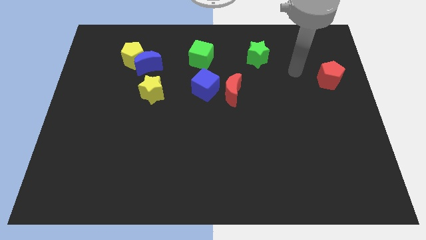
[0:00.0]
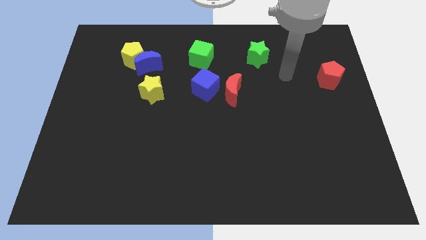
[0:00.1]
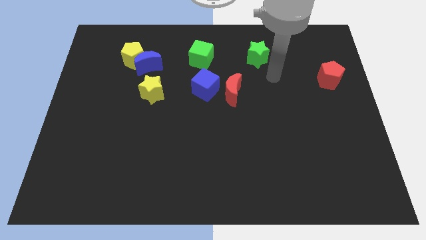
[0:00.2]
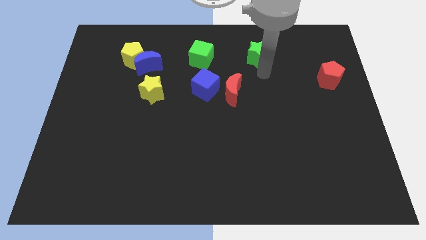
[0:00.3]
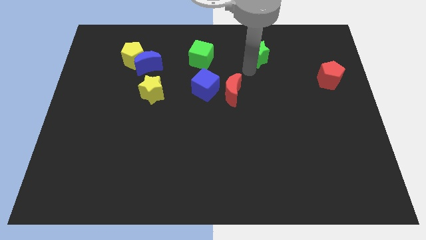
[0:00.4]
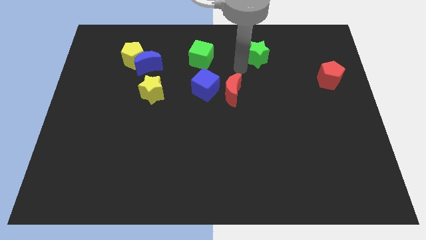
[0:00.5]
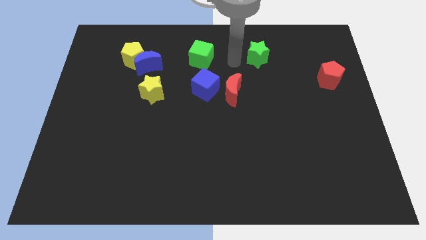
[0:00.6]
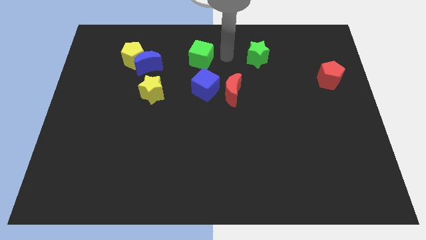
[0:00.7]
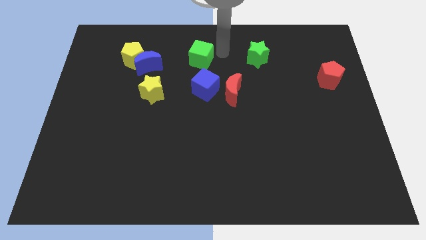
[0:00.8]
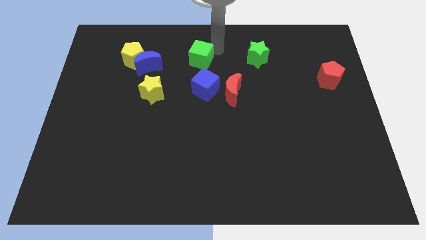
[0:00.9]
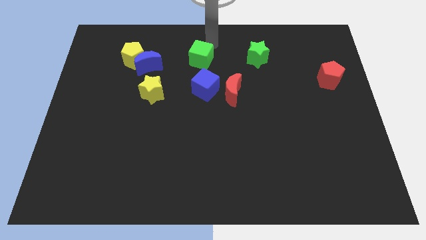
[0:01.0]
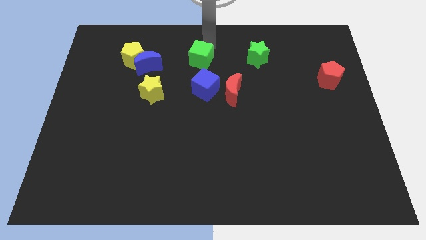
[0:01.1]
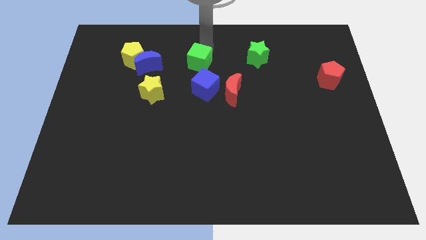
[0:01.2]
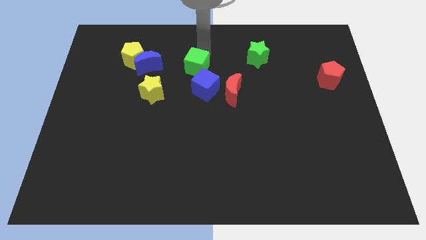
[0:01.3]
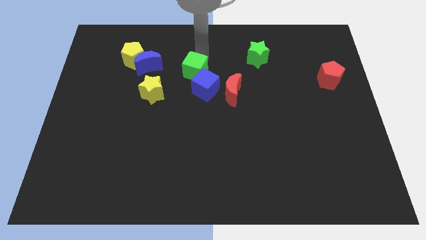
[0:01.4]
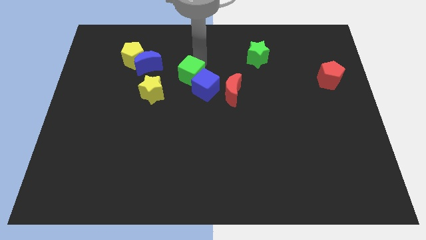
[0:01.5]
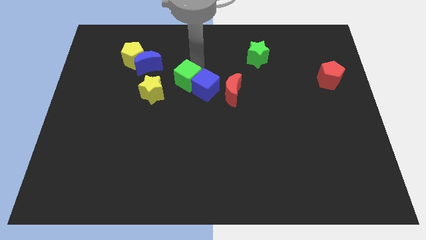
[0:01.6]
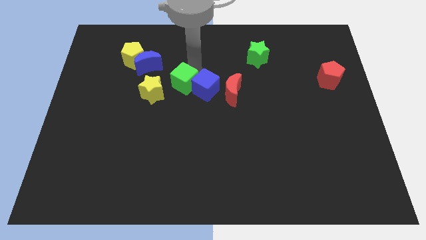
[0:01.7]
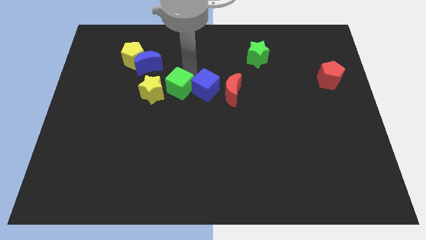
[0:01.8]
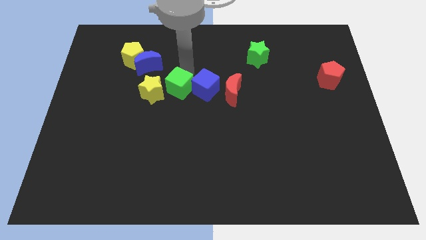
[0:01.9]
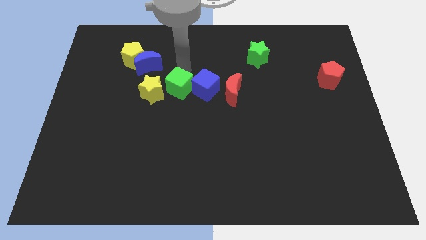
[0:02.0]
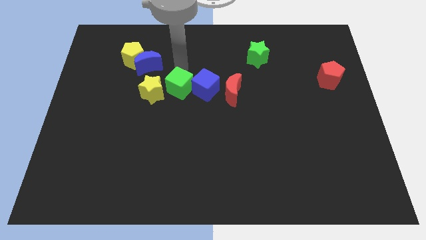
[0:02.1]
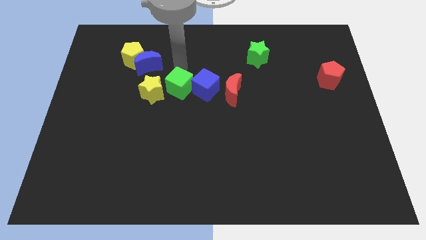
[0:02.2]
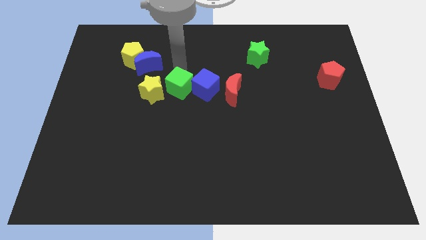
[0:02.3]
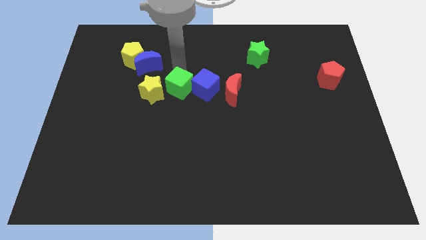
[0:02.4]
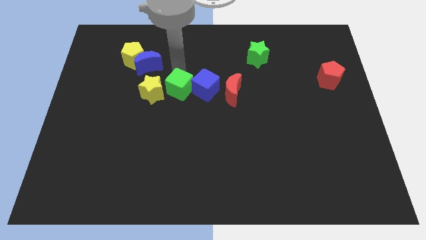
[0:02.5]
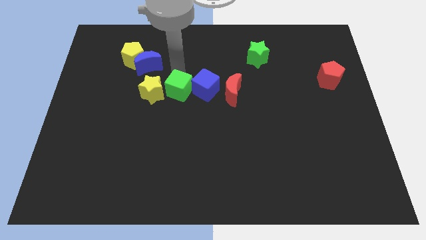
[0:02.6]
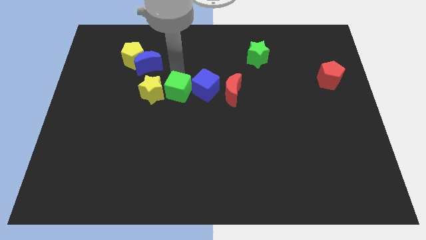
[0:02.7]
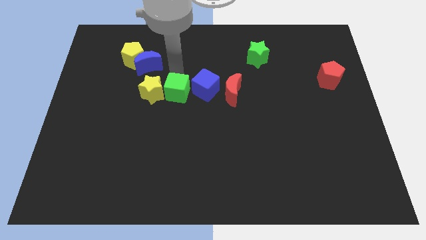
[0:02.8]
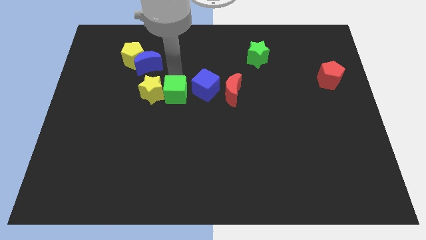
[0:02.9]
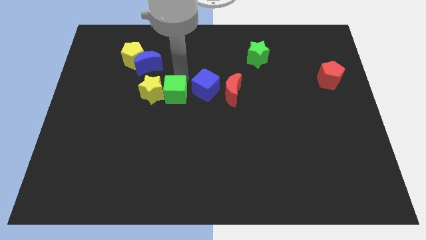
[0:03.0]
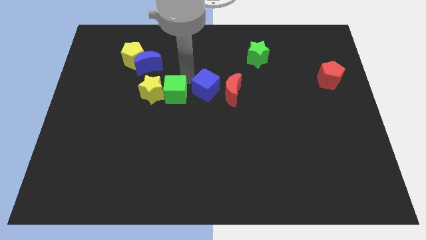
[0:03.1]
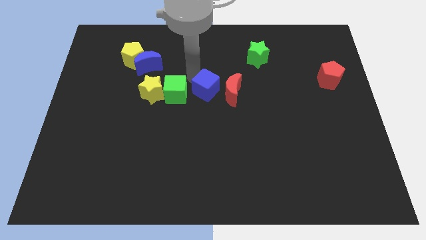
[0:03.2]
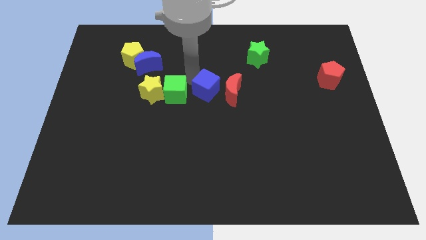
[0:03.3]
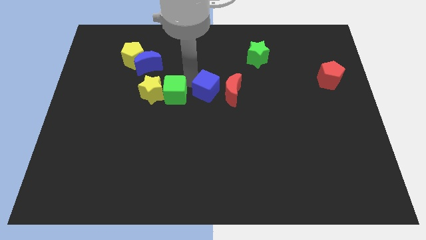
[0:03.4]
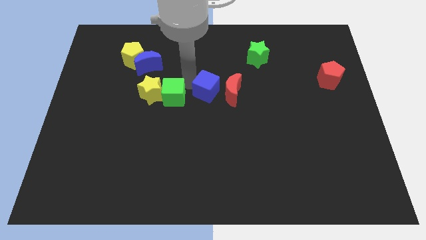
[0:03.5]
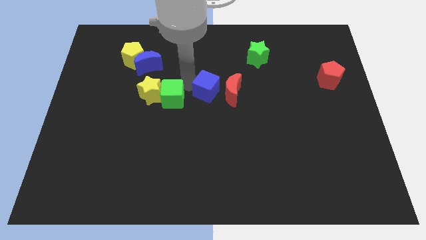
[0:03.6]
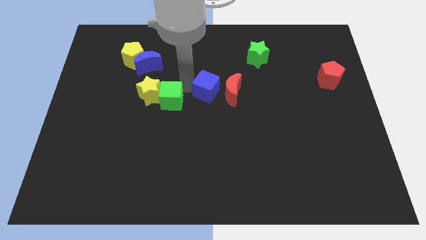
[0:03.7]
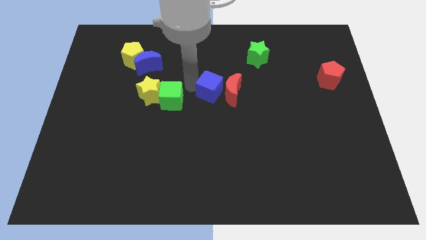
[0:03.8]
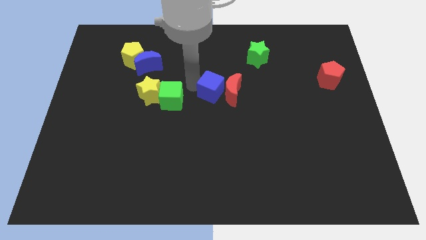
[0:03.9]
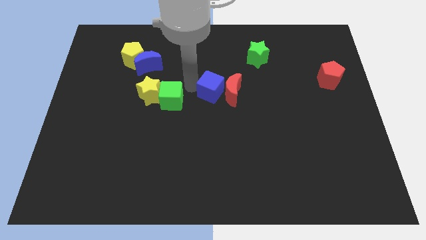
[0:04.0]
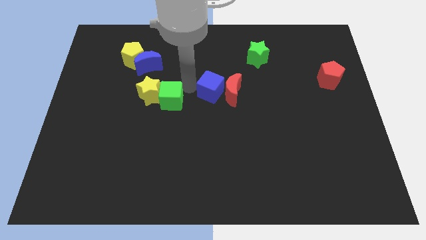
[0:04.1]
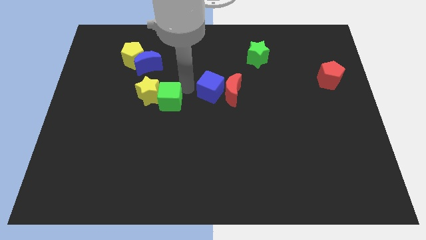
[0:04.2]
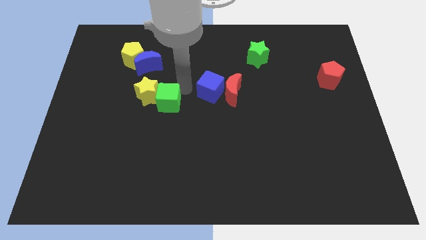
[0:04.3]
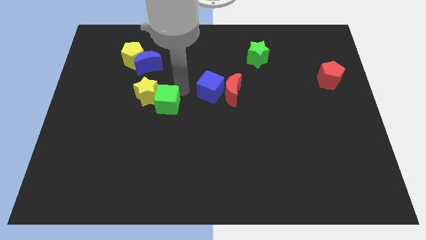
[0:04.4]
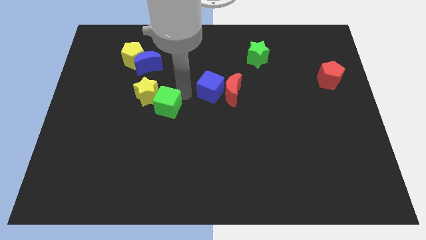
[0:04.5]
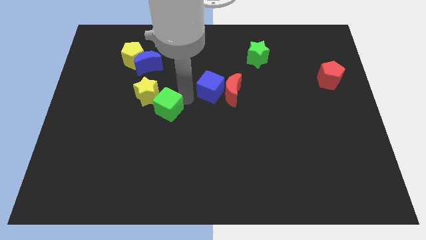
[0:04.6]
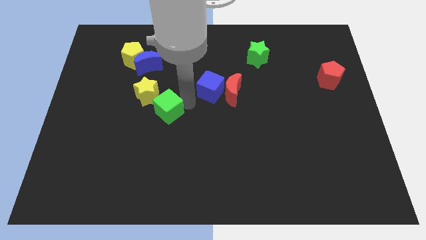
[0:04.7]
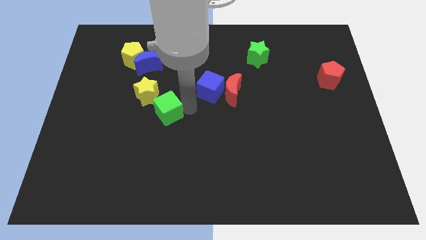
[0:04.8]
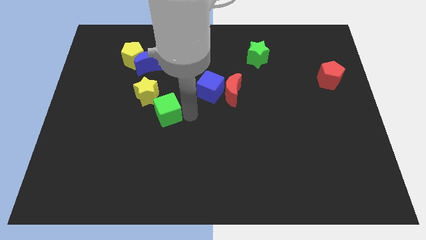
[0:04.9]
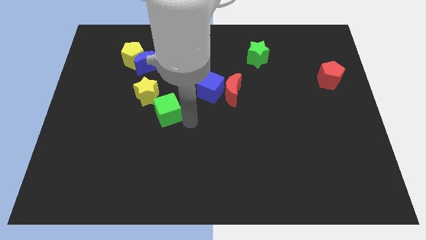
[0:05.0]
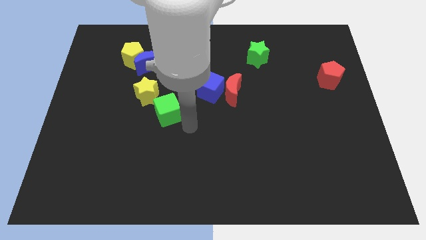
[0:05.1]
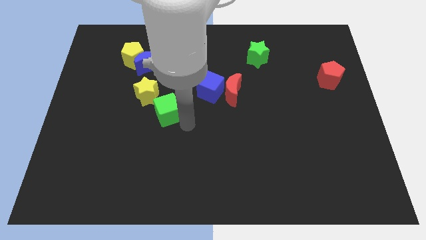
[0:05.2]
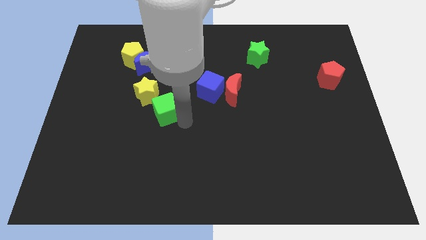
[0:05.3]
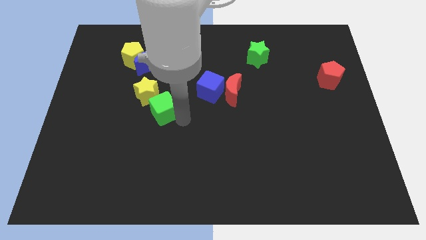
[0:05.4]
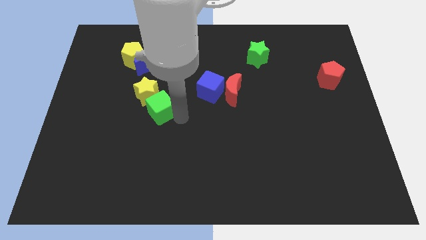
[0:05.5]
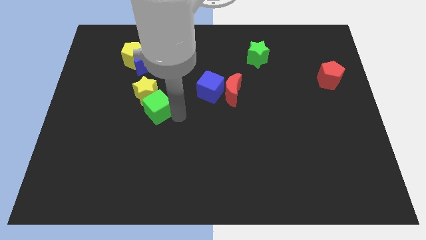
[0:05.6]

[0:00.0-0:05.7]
move the green cube to the bottom of the blue moon

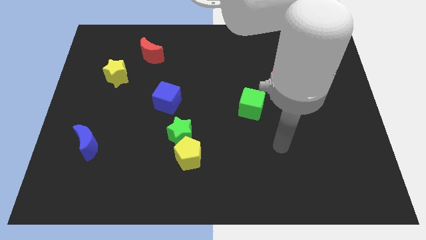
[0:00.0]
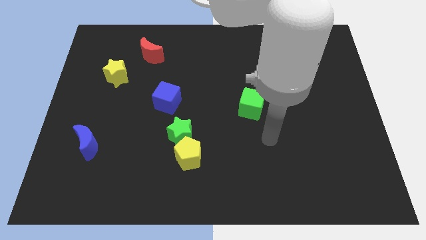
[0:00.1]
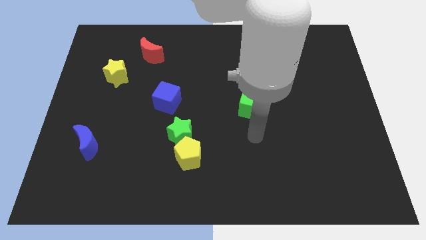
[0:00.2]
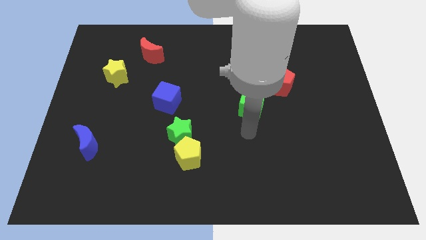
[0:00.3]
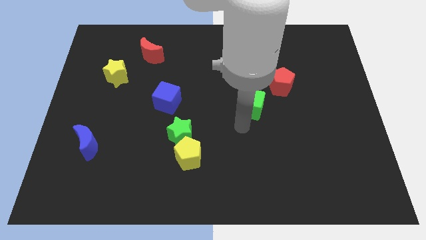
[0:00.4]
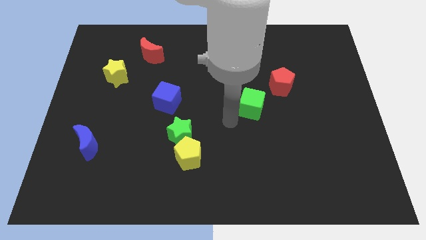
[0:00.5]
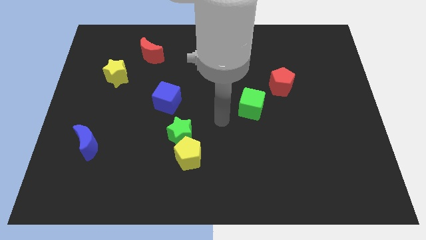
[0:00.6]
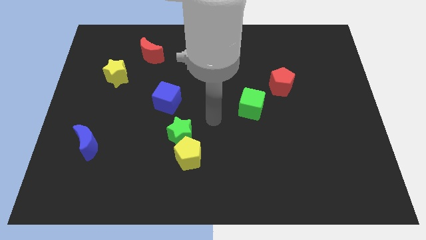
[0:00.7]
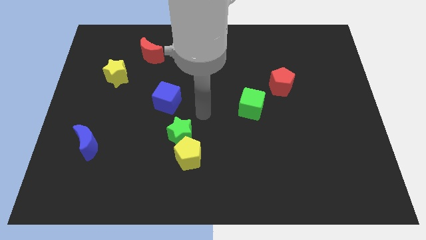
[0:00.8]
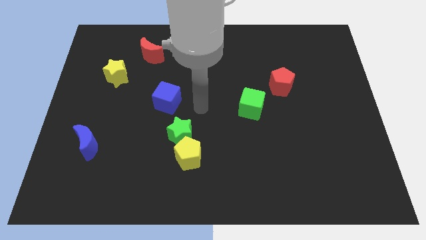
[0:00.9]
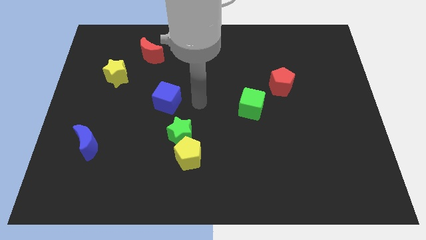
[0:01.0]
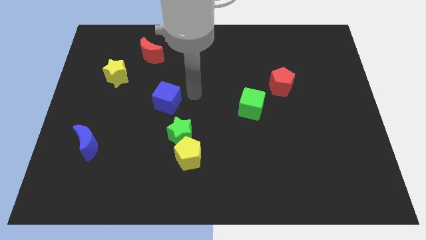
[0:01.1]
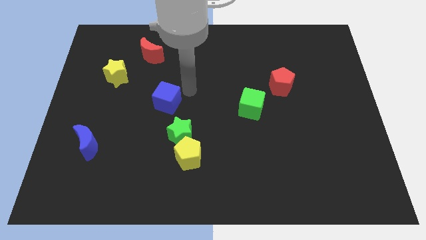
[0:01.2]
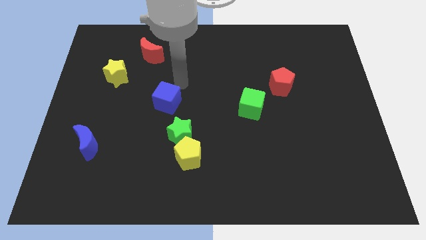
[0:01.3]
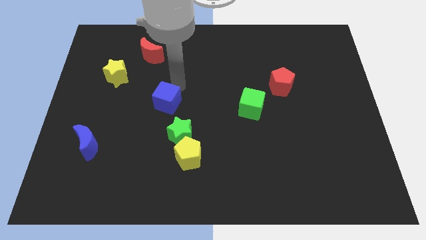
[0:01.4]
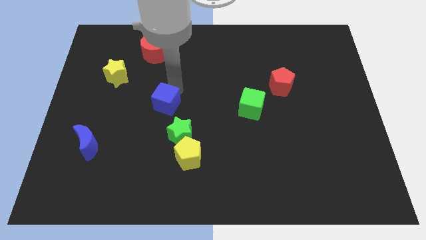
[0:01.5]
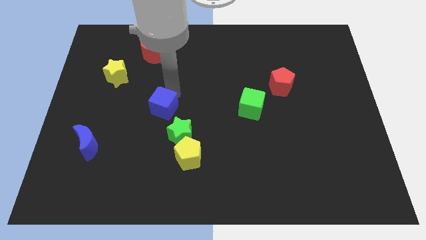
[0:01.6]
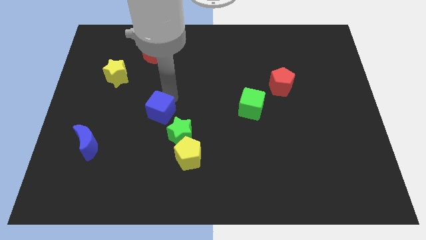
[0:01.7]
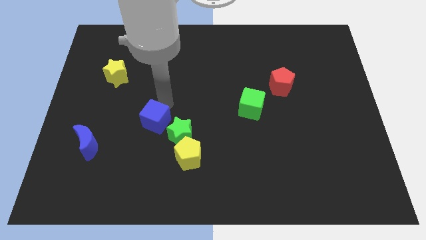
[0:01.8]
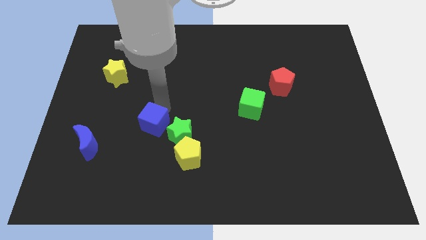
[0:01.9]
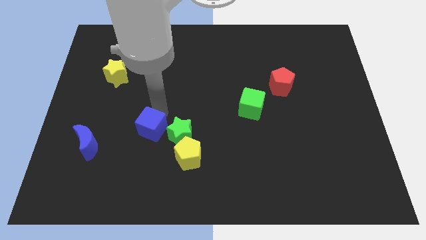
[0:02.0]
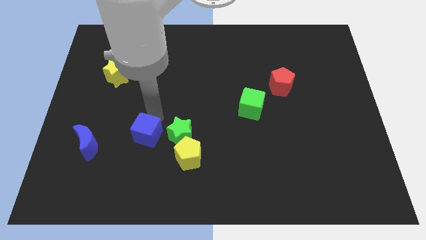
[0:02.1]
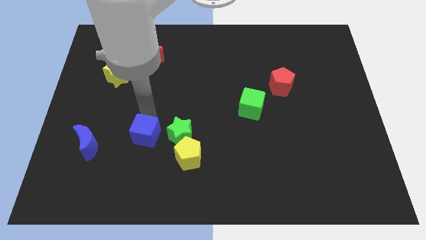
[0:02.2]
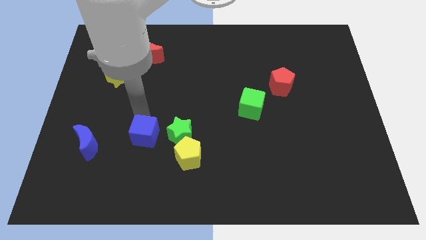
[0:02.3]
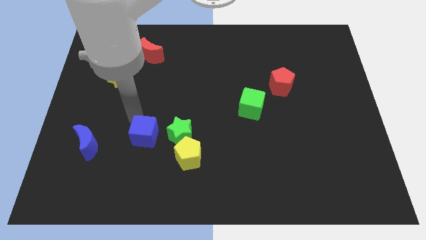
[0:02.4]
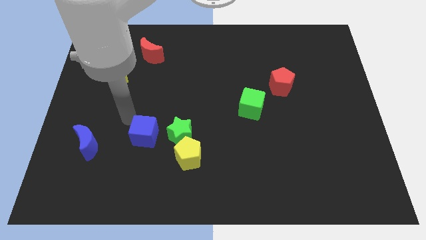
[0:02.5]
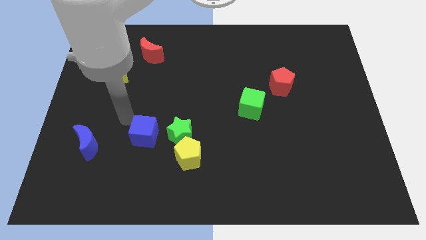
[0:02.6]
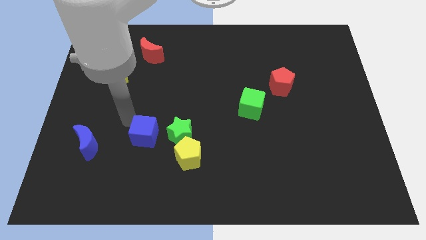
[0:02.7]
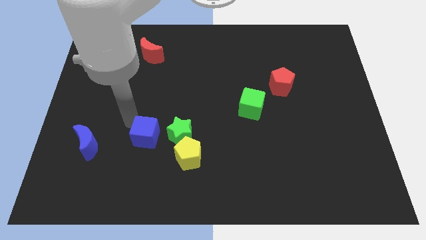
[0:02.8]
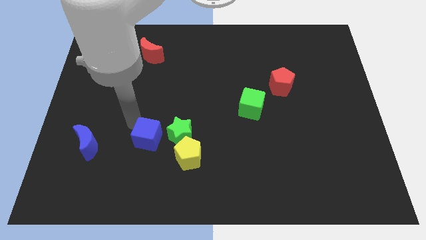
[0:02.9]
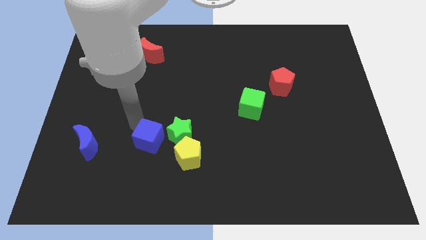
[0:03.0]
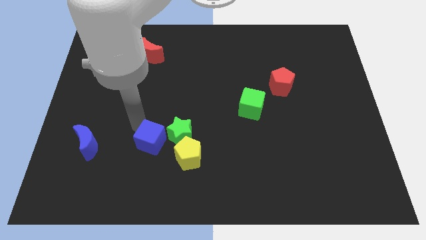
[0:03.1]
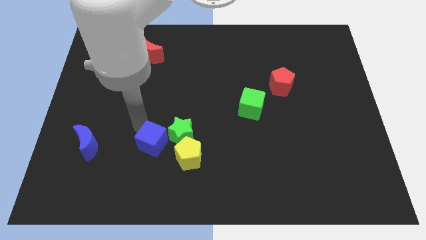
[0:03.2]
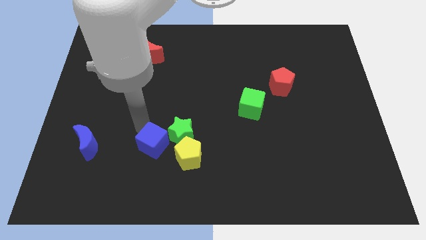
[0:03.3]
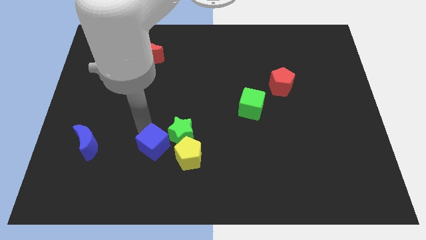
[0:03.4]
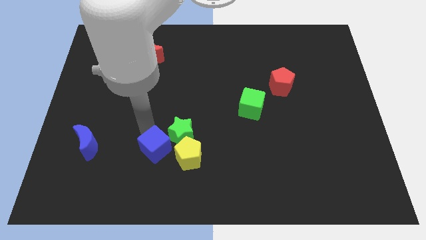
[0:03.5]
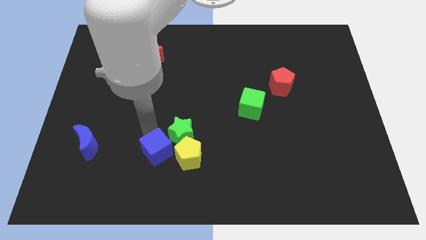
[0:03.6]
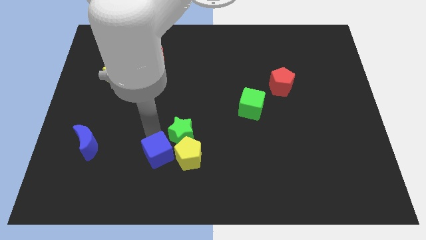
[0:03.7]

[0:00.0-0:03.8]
put the blue cube to the bottom of the green star
